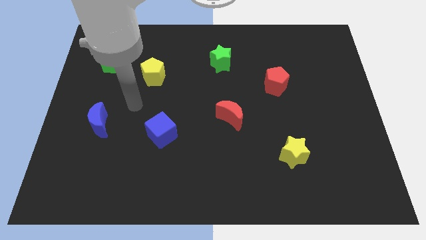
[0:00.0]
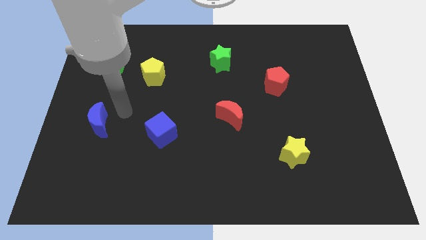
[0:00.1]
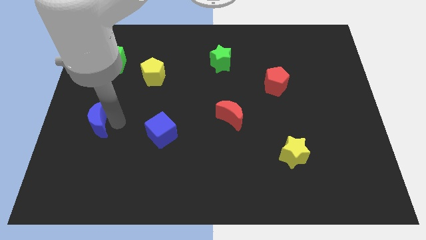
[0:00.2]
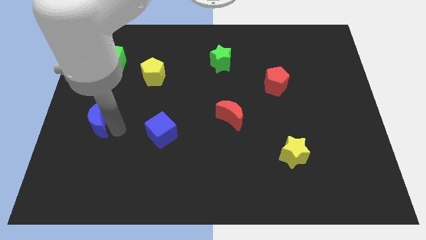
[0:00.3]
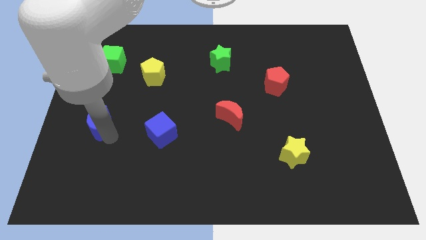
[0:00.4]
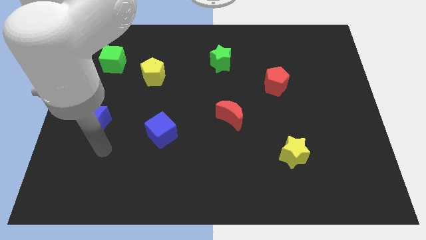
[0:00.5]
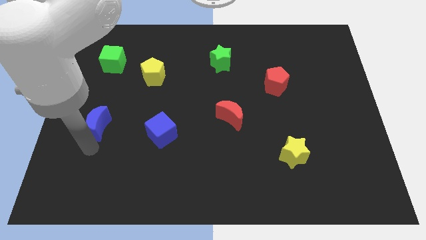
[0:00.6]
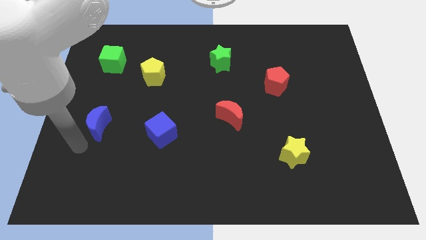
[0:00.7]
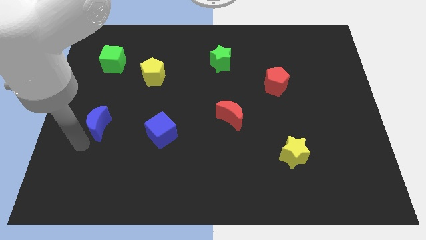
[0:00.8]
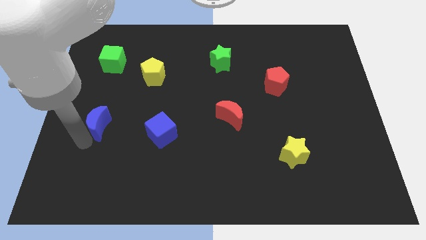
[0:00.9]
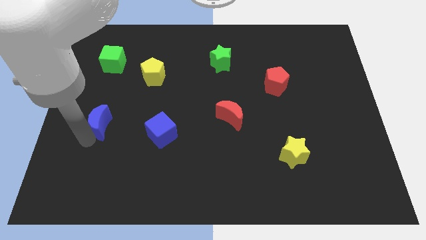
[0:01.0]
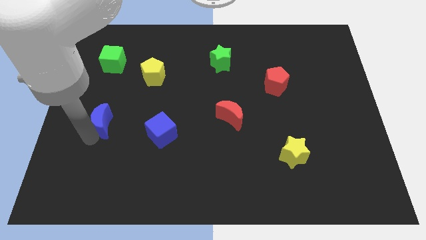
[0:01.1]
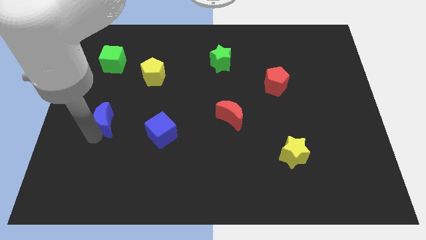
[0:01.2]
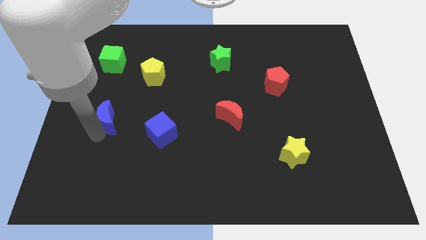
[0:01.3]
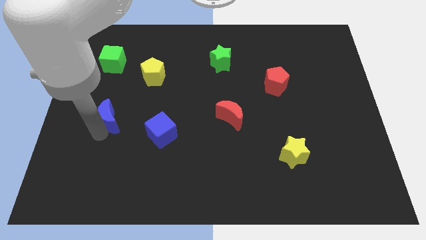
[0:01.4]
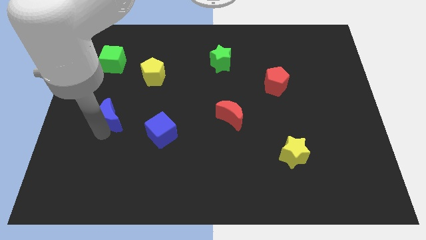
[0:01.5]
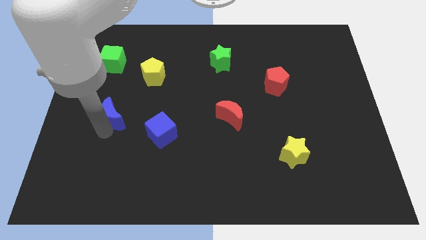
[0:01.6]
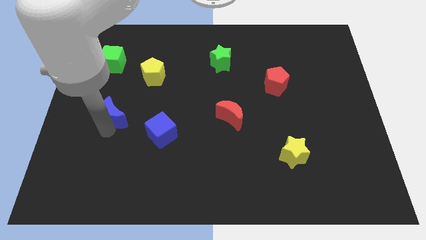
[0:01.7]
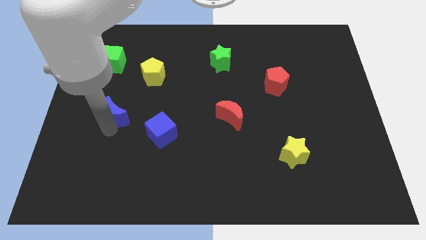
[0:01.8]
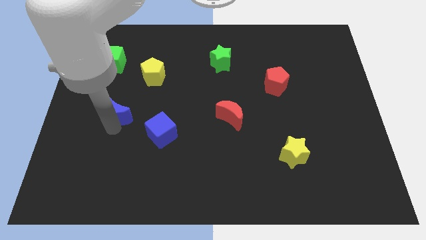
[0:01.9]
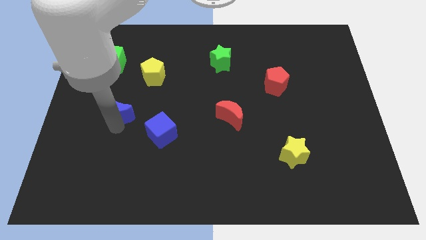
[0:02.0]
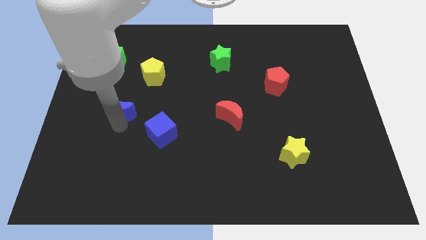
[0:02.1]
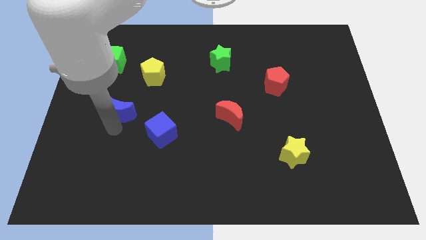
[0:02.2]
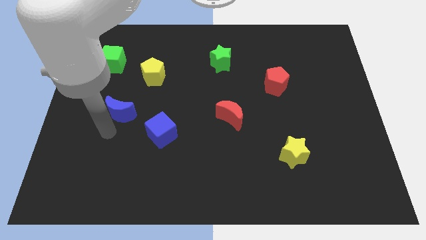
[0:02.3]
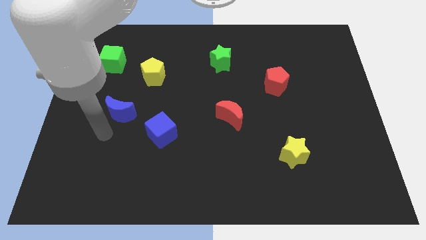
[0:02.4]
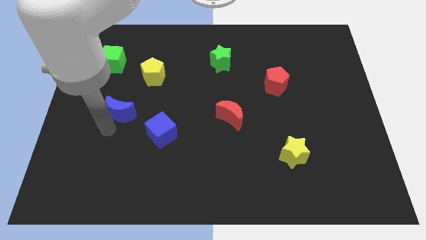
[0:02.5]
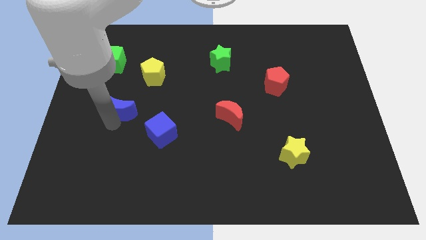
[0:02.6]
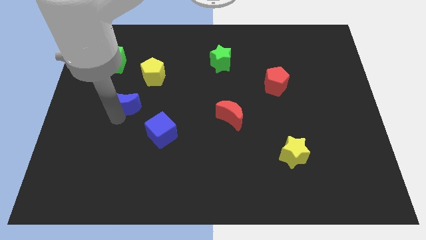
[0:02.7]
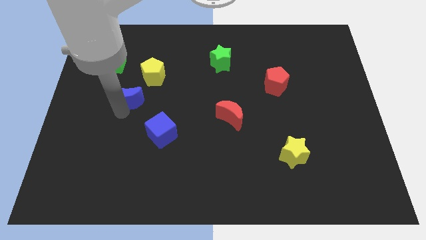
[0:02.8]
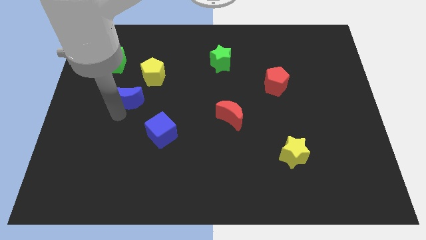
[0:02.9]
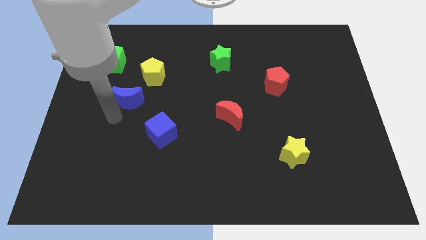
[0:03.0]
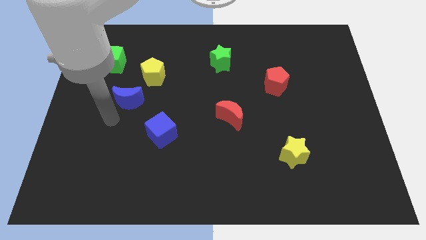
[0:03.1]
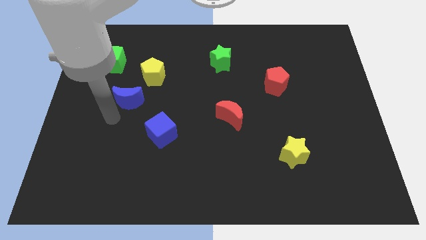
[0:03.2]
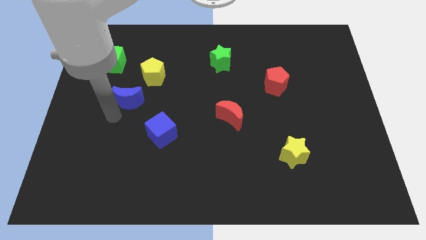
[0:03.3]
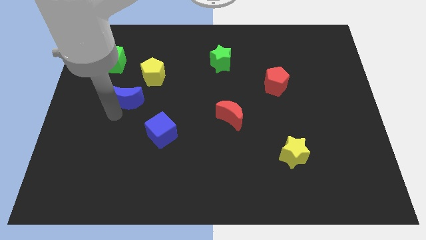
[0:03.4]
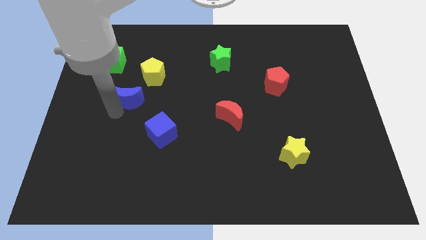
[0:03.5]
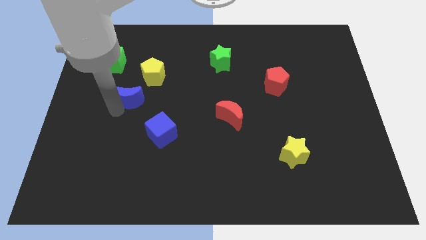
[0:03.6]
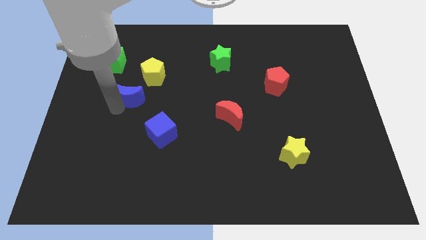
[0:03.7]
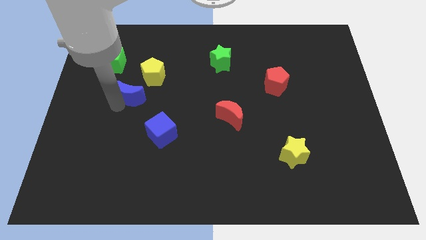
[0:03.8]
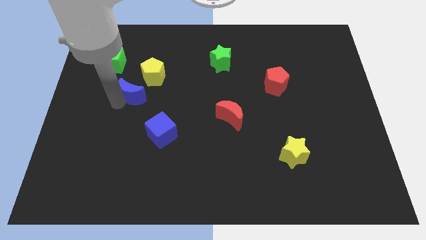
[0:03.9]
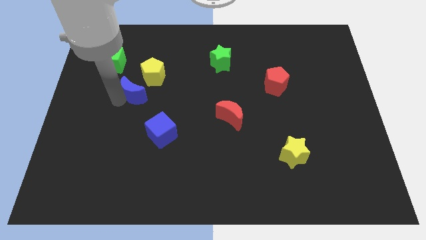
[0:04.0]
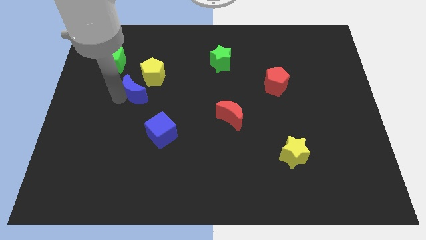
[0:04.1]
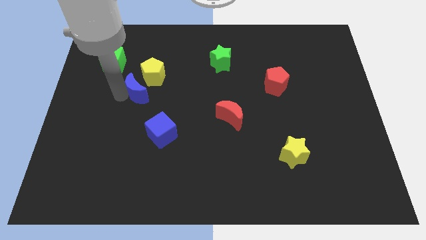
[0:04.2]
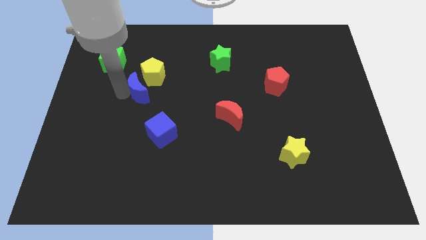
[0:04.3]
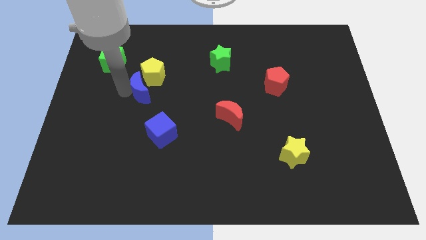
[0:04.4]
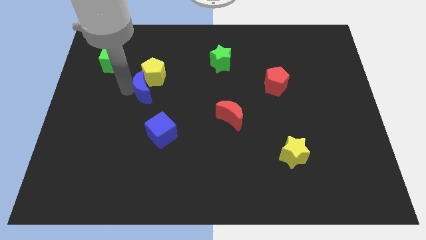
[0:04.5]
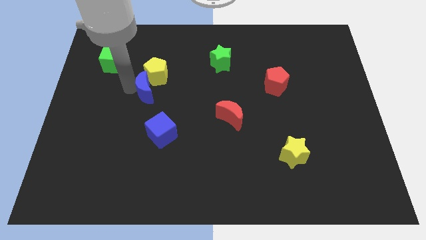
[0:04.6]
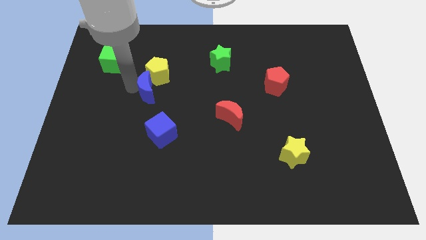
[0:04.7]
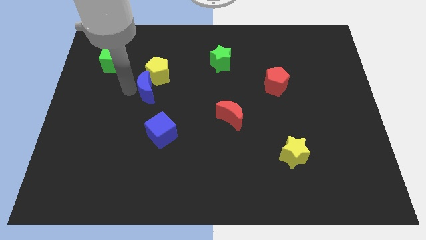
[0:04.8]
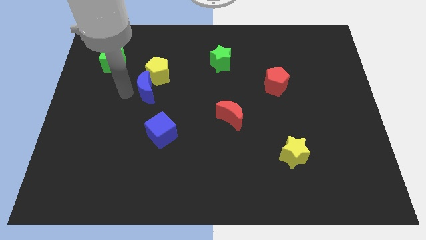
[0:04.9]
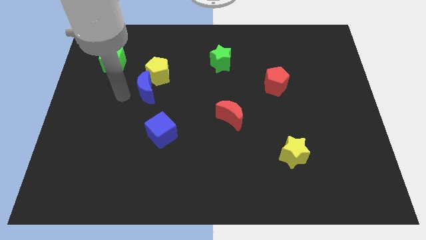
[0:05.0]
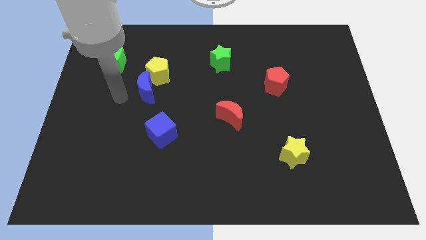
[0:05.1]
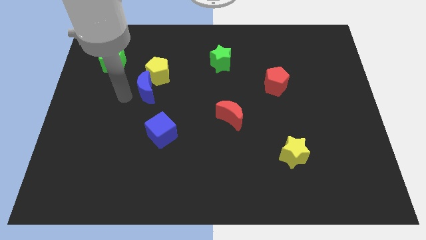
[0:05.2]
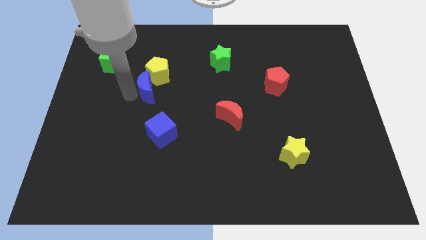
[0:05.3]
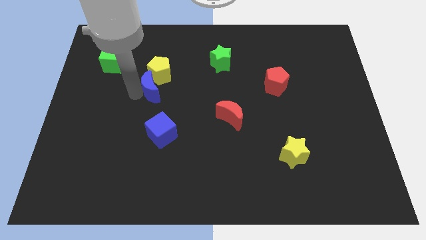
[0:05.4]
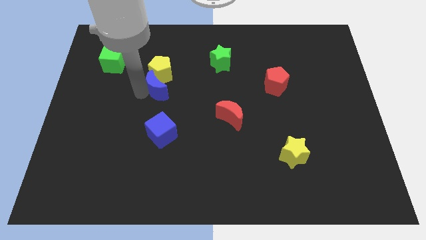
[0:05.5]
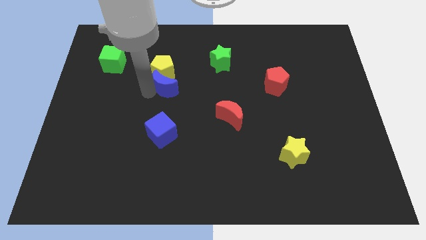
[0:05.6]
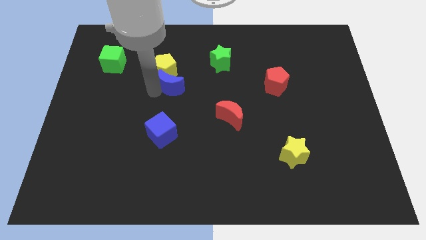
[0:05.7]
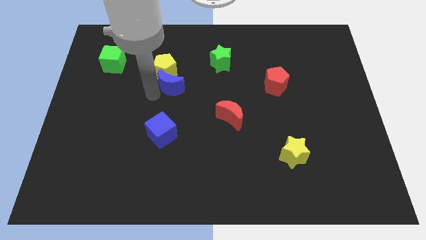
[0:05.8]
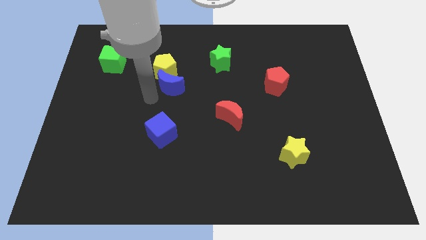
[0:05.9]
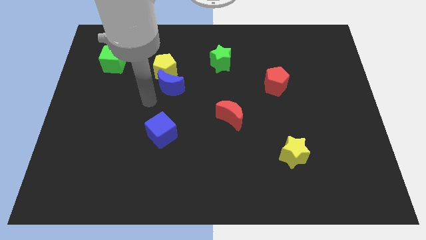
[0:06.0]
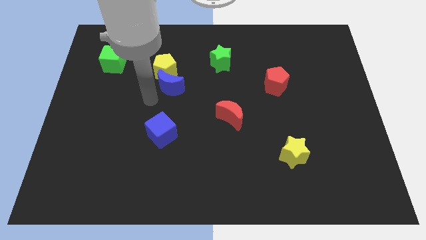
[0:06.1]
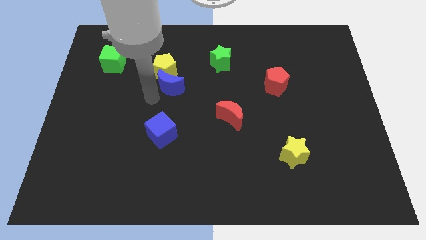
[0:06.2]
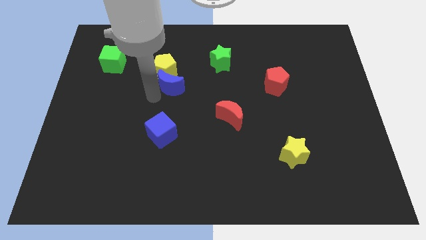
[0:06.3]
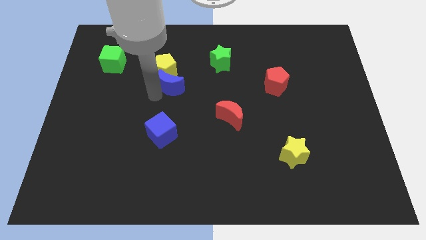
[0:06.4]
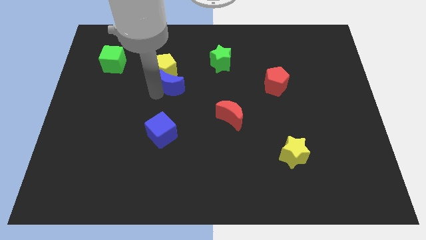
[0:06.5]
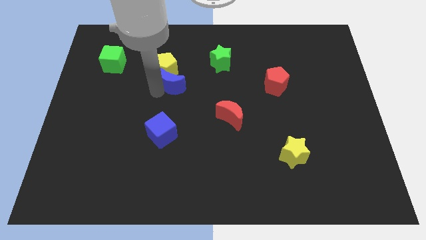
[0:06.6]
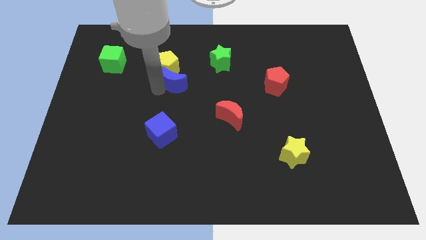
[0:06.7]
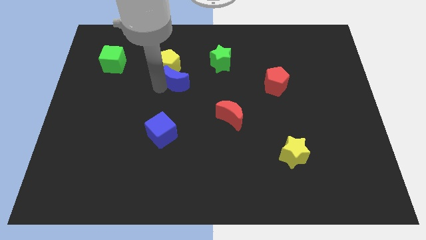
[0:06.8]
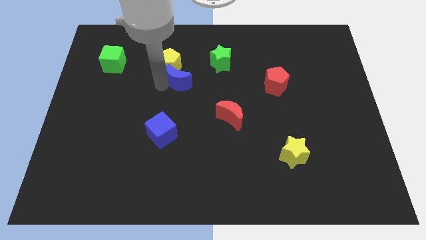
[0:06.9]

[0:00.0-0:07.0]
put the blue moon diagonally down and to the left of the green star
